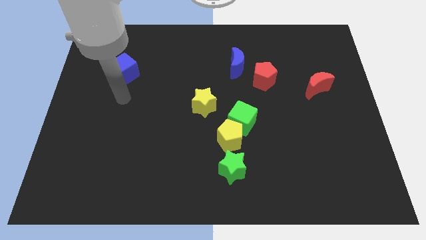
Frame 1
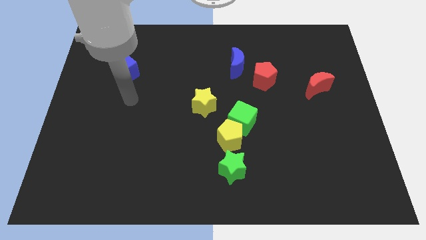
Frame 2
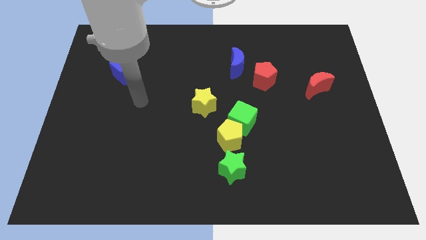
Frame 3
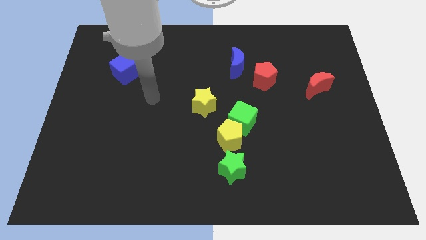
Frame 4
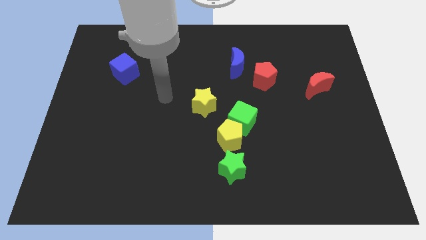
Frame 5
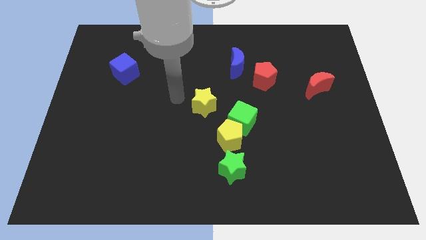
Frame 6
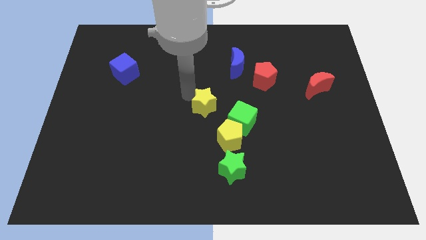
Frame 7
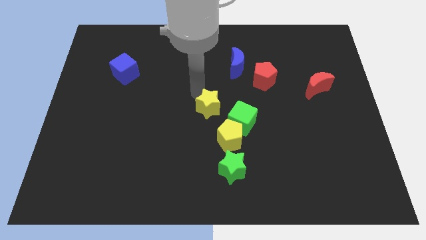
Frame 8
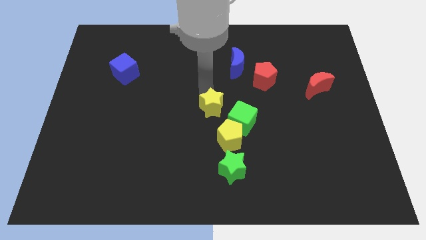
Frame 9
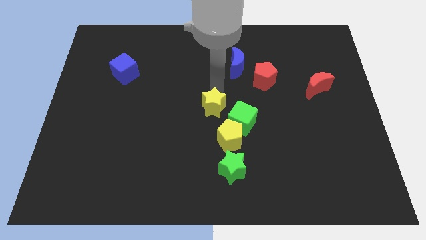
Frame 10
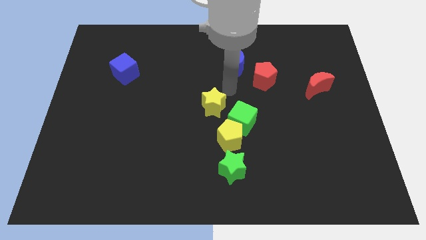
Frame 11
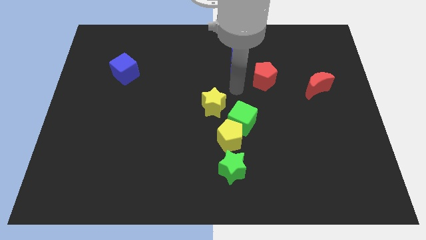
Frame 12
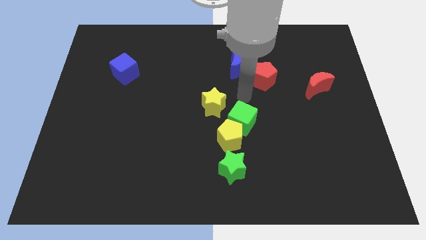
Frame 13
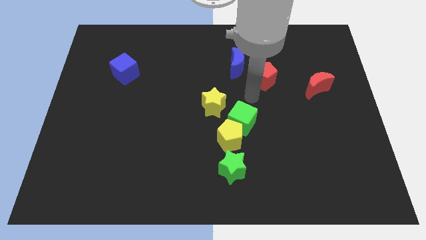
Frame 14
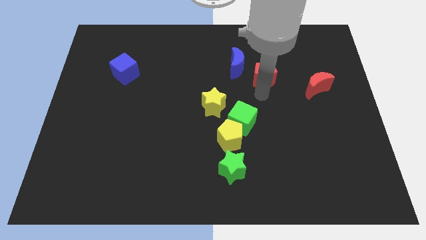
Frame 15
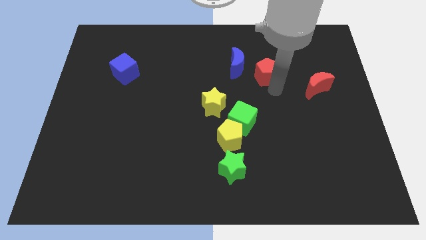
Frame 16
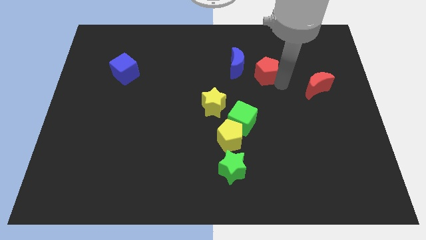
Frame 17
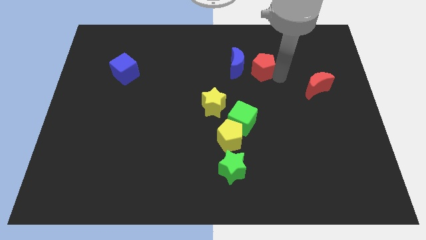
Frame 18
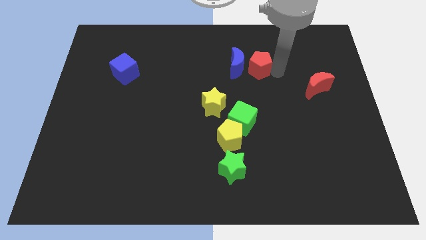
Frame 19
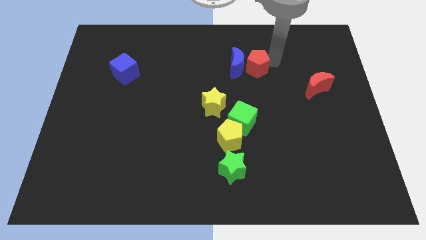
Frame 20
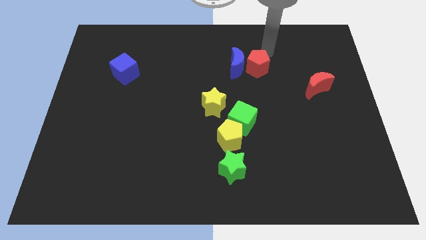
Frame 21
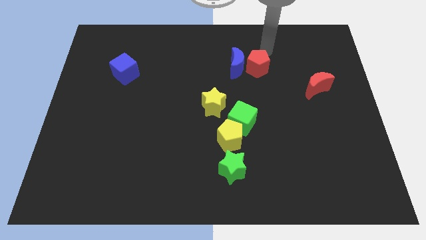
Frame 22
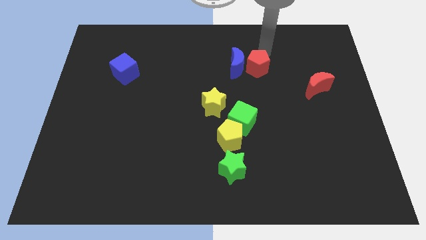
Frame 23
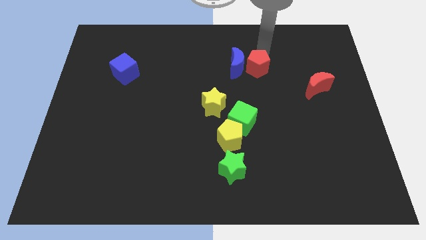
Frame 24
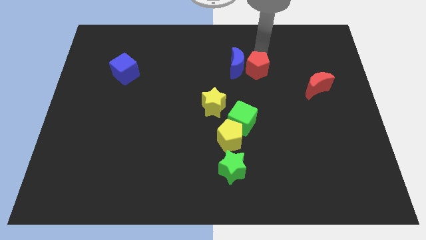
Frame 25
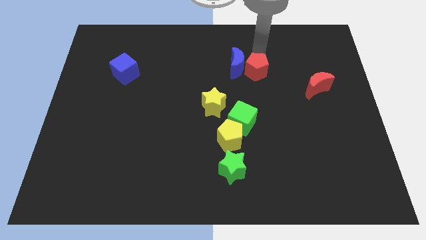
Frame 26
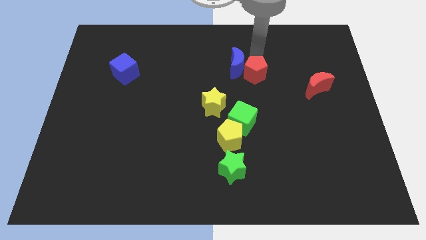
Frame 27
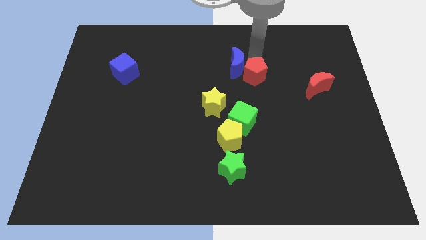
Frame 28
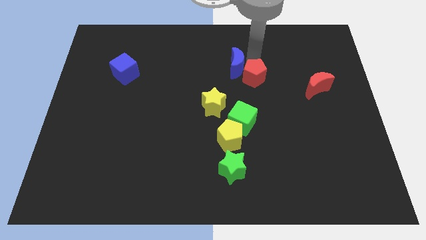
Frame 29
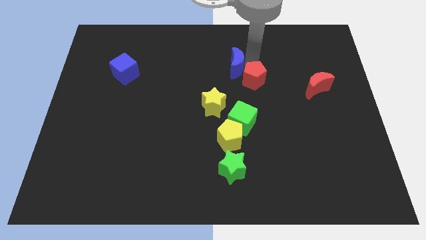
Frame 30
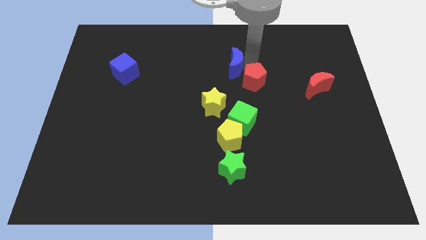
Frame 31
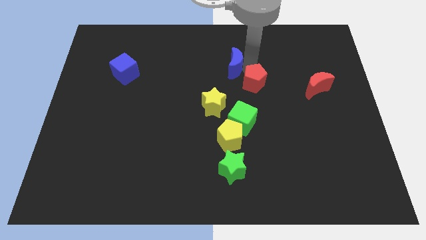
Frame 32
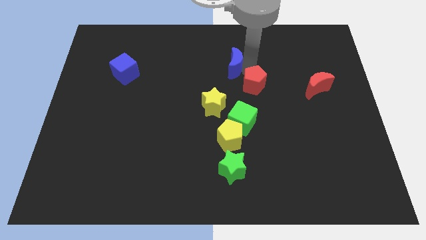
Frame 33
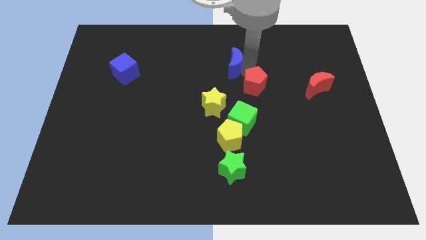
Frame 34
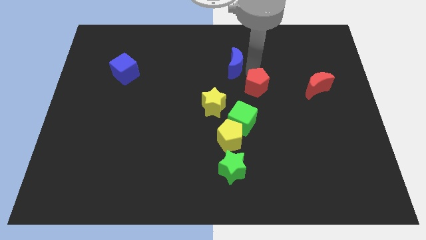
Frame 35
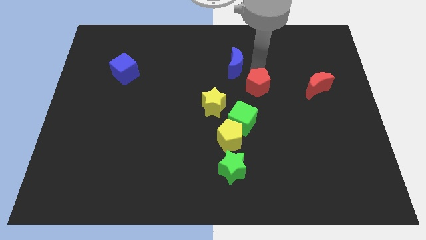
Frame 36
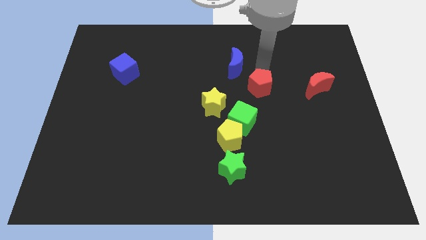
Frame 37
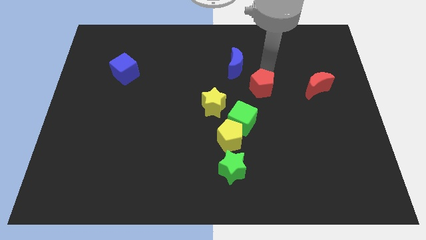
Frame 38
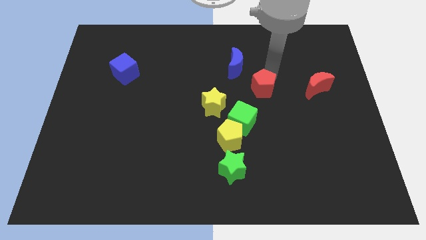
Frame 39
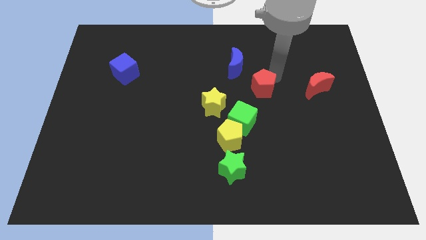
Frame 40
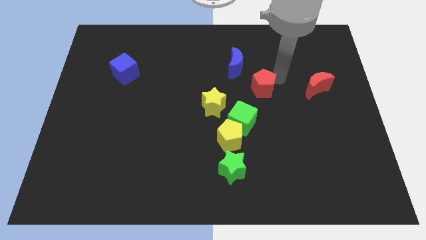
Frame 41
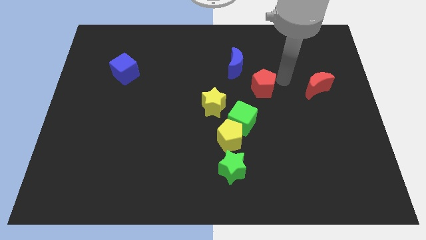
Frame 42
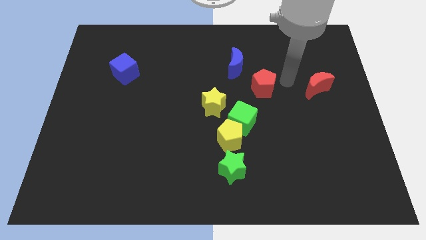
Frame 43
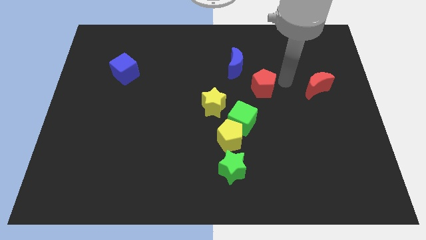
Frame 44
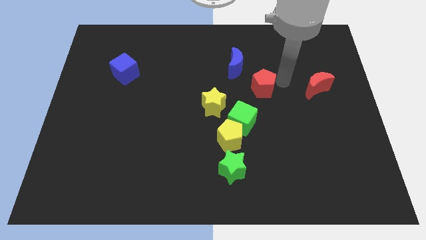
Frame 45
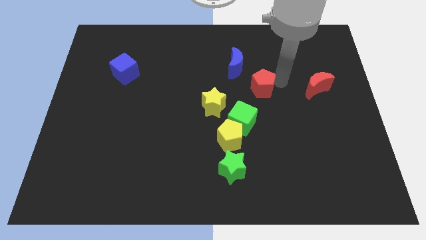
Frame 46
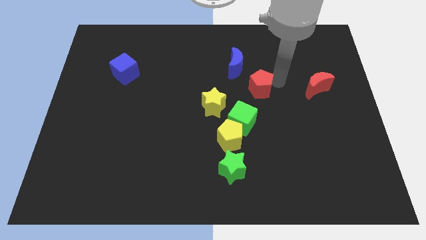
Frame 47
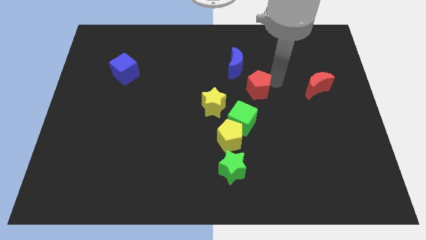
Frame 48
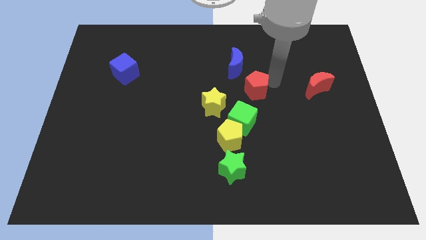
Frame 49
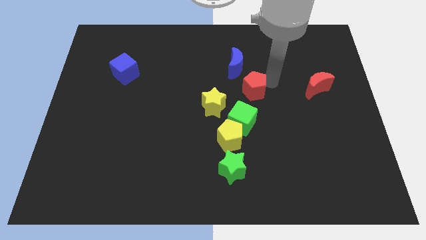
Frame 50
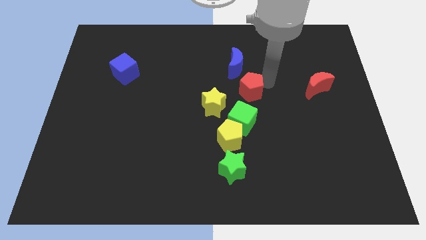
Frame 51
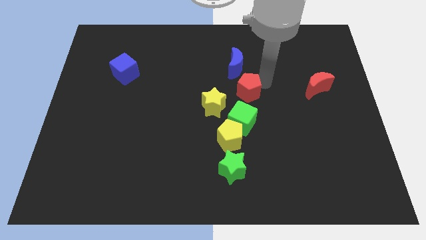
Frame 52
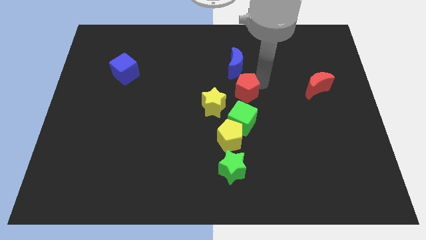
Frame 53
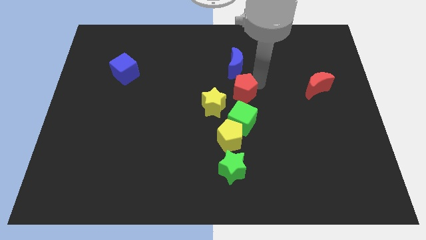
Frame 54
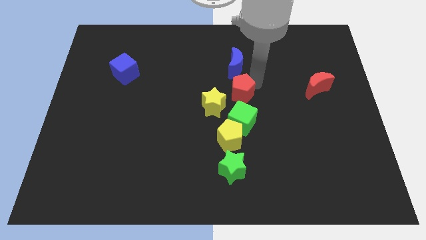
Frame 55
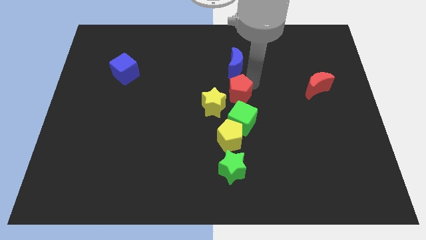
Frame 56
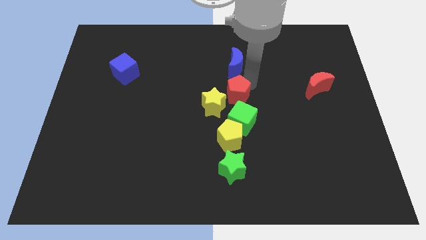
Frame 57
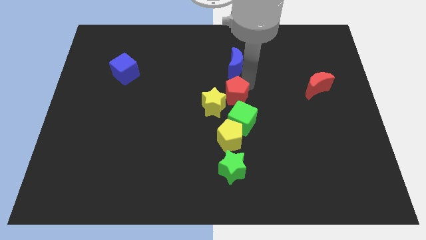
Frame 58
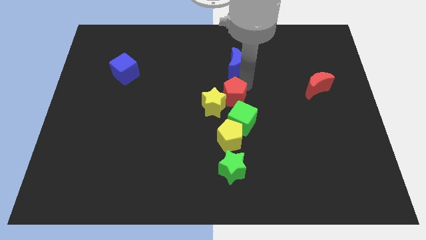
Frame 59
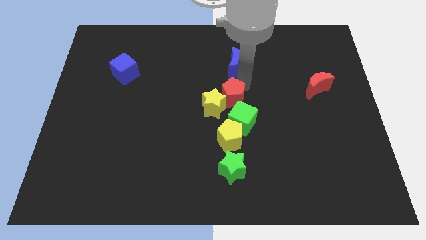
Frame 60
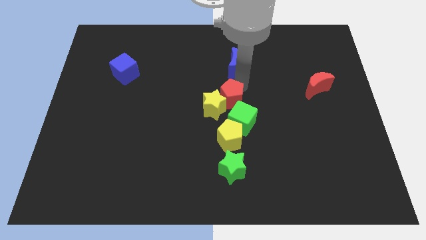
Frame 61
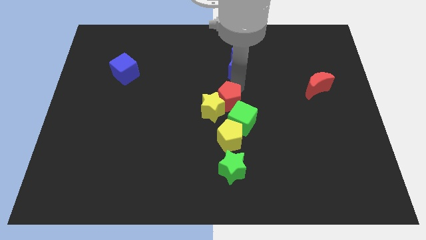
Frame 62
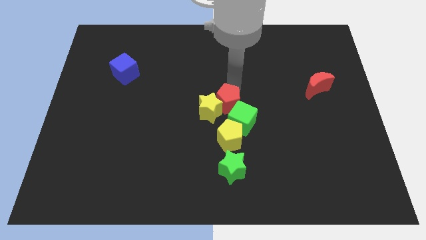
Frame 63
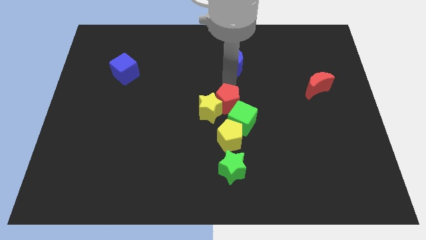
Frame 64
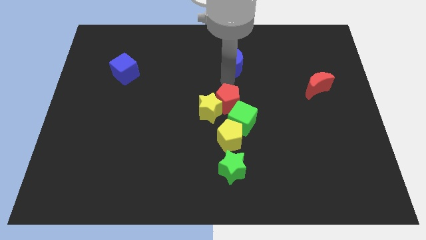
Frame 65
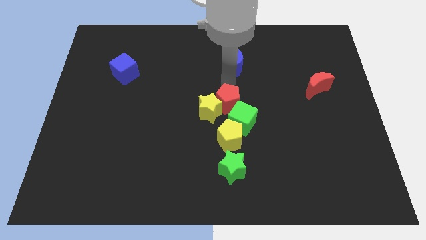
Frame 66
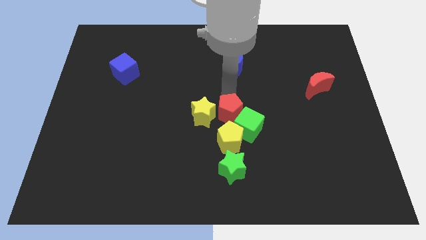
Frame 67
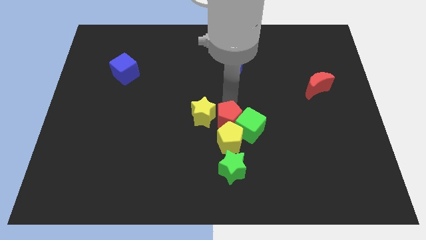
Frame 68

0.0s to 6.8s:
put the red pentagon next to the yellow pentagon
